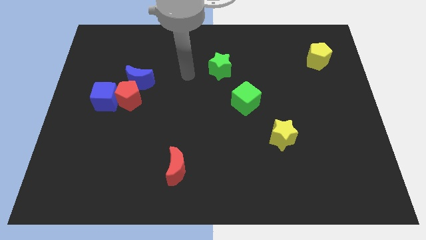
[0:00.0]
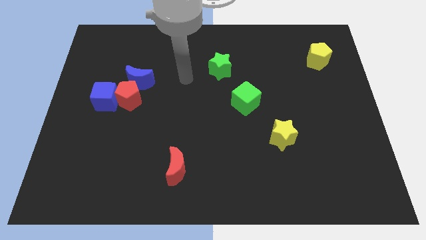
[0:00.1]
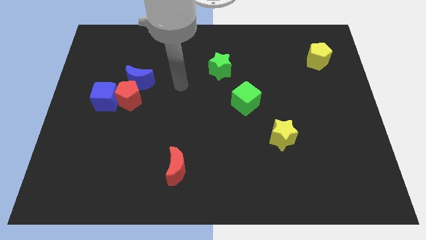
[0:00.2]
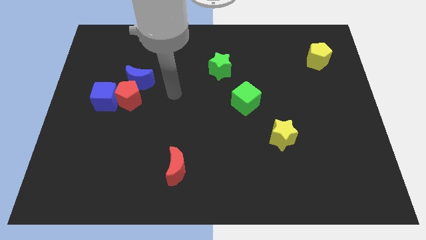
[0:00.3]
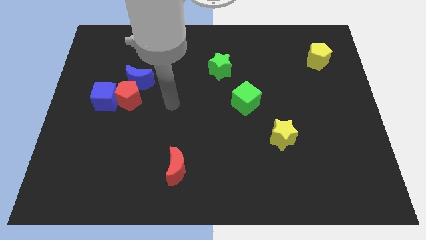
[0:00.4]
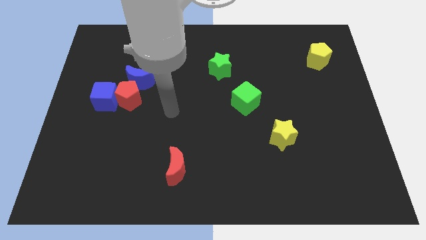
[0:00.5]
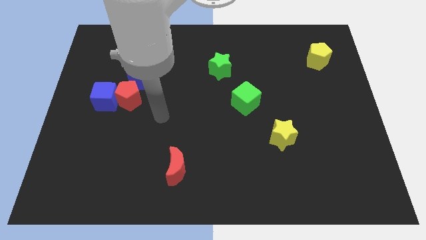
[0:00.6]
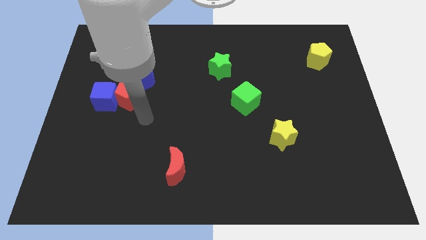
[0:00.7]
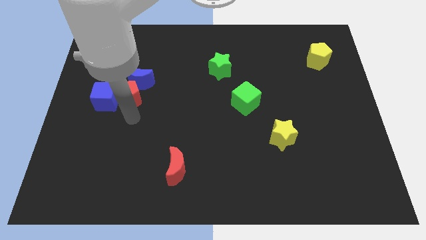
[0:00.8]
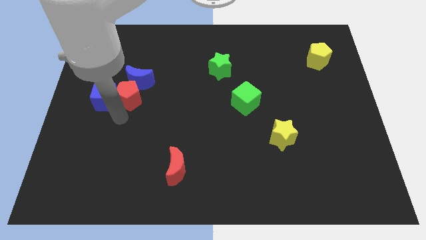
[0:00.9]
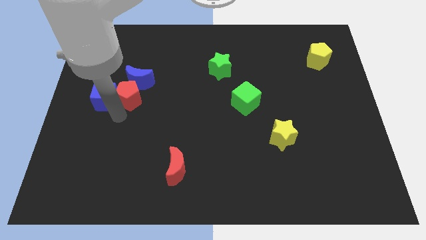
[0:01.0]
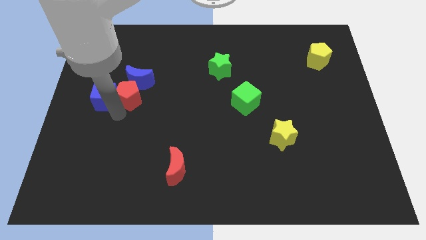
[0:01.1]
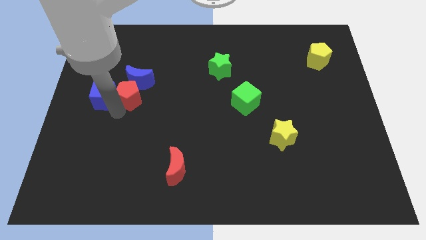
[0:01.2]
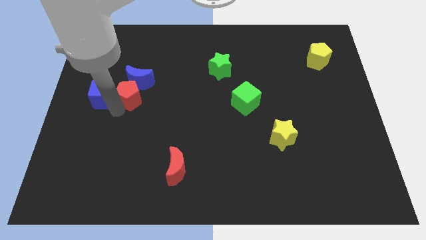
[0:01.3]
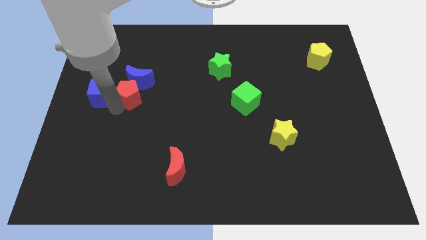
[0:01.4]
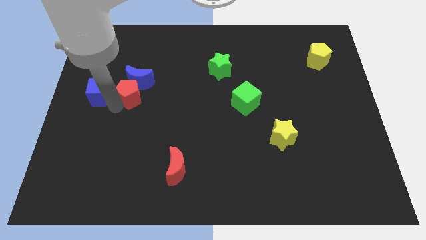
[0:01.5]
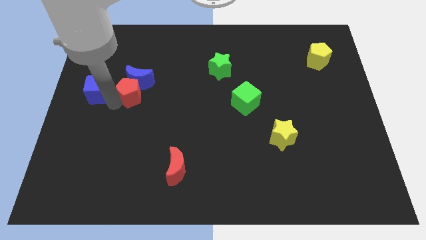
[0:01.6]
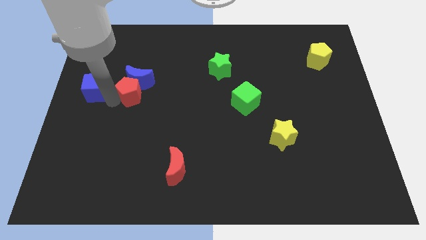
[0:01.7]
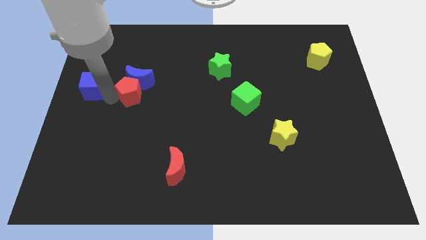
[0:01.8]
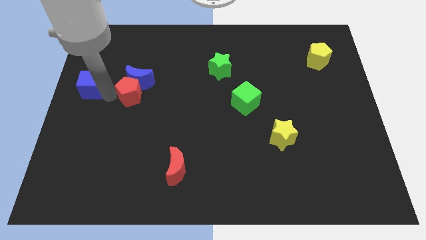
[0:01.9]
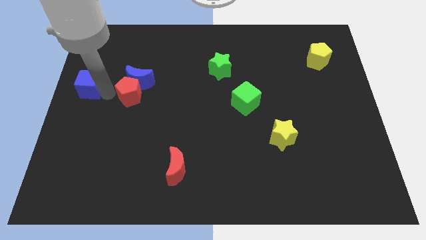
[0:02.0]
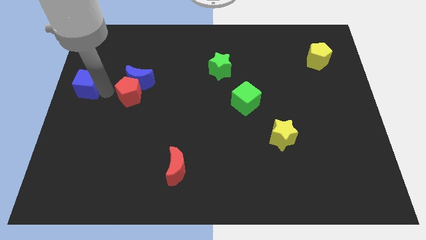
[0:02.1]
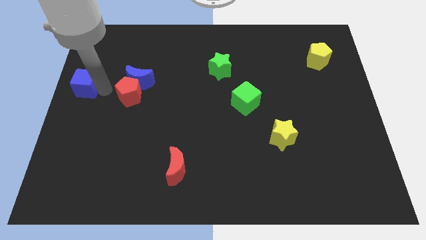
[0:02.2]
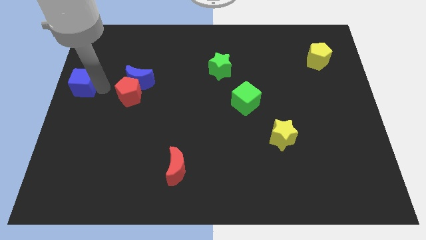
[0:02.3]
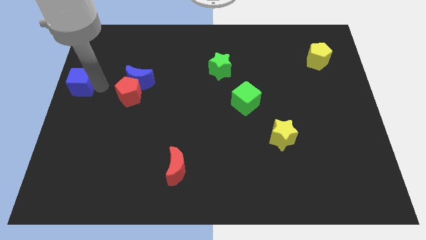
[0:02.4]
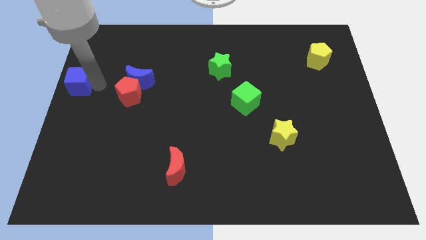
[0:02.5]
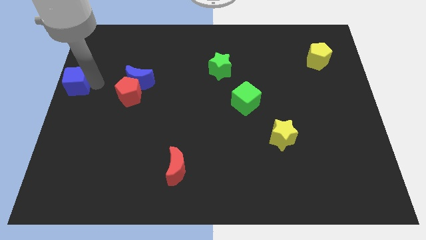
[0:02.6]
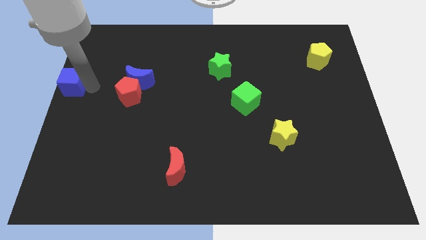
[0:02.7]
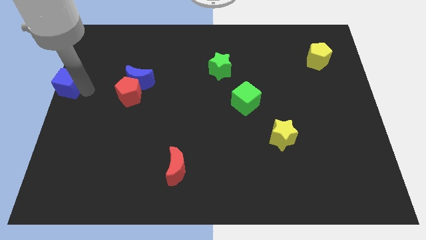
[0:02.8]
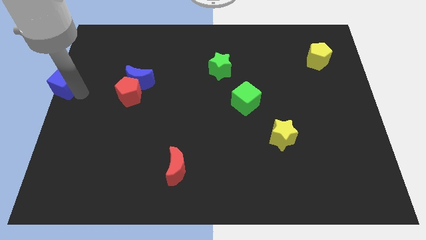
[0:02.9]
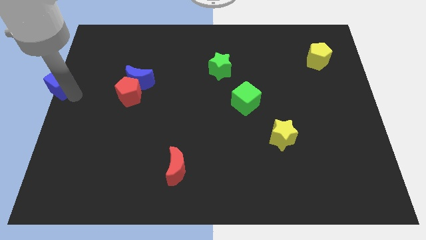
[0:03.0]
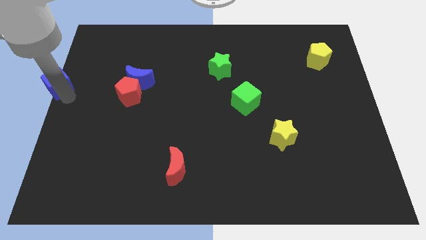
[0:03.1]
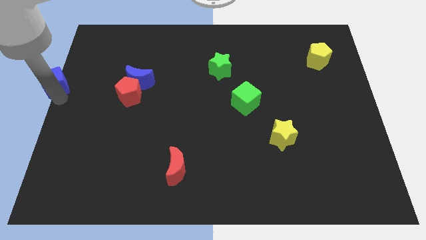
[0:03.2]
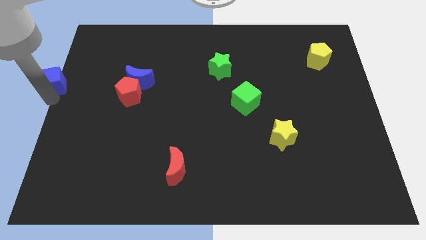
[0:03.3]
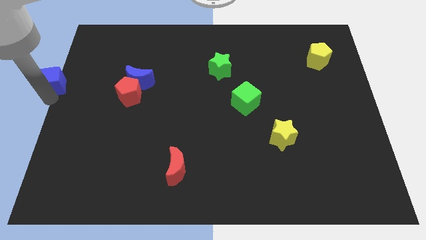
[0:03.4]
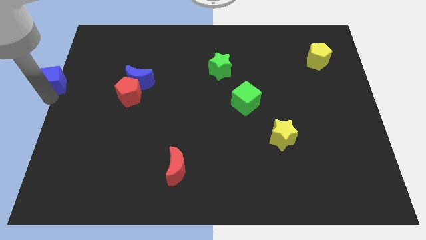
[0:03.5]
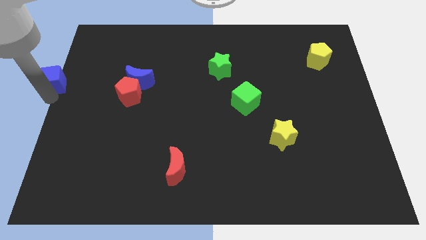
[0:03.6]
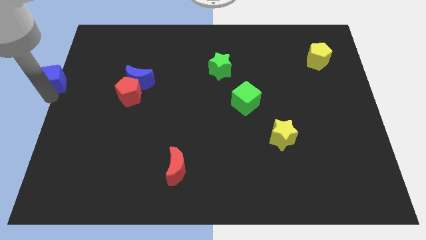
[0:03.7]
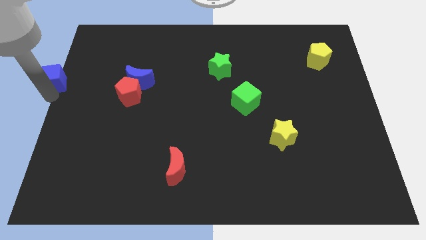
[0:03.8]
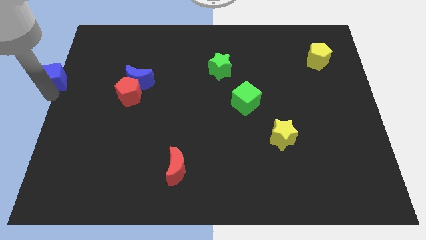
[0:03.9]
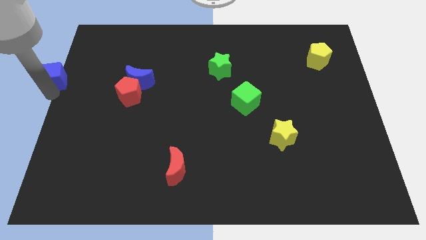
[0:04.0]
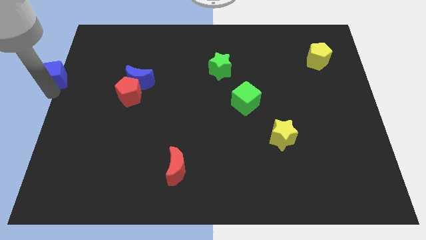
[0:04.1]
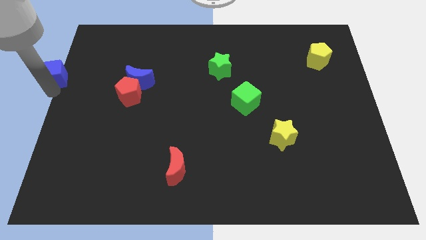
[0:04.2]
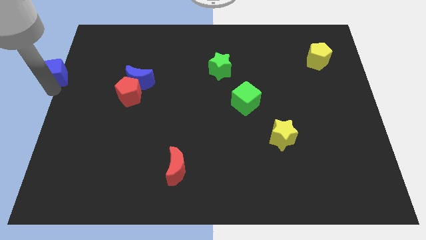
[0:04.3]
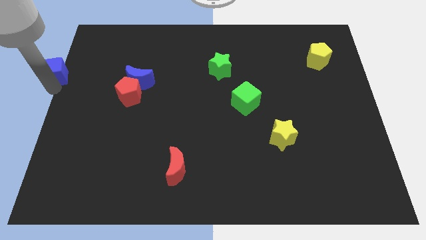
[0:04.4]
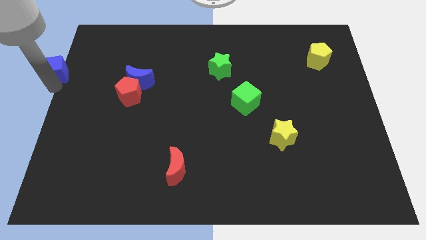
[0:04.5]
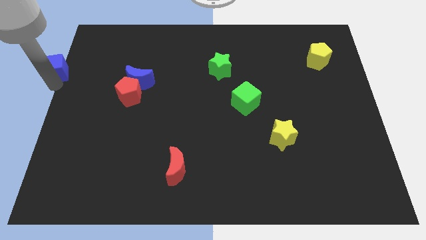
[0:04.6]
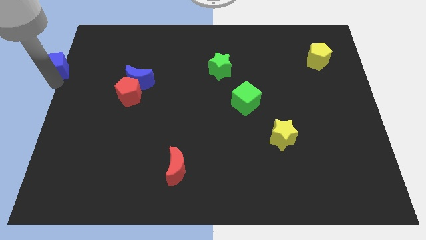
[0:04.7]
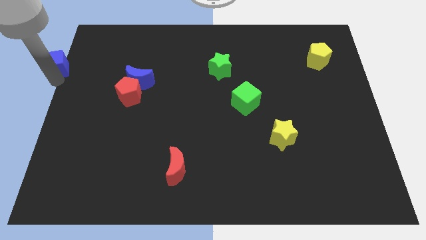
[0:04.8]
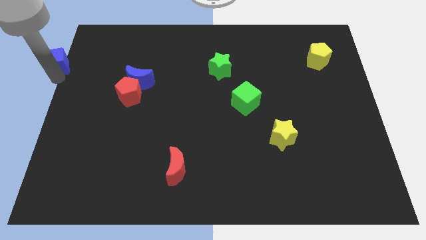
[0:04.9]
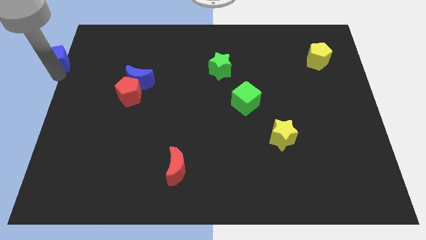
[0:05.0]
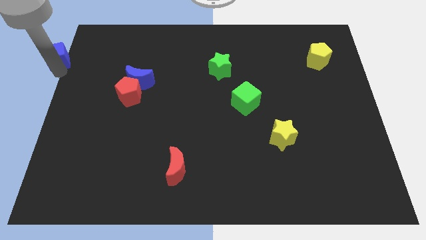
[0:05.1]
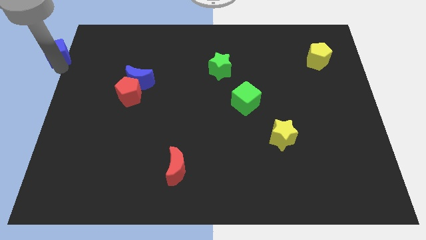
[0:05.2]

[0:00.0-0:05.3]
slide the blue cube to the top left of the board
